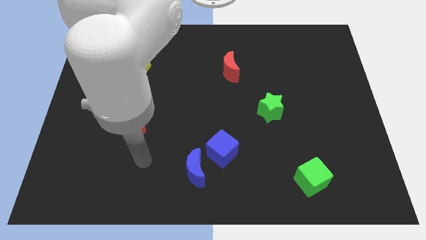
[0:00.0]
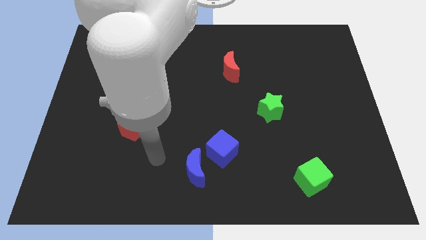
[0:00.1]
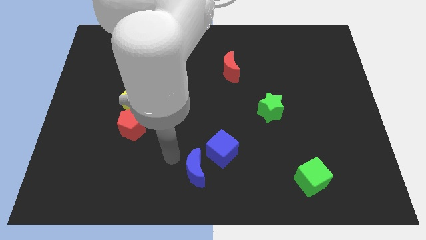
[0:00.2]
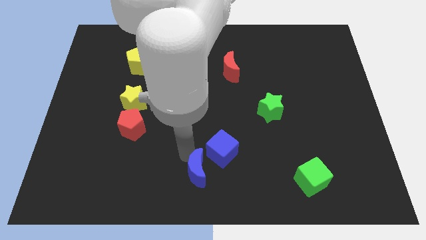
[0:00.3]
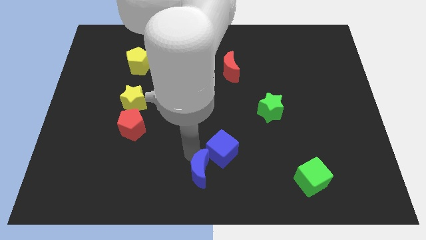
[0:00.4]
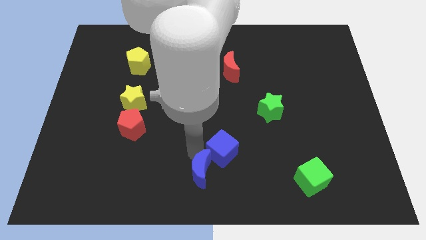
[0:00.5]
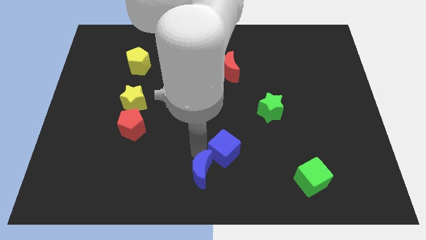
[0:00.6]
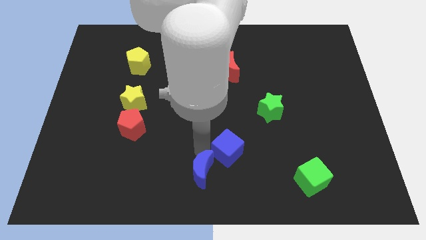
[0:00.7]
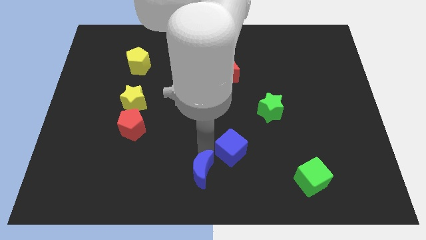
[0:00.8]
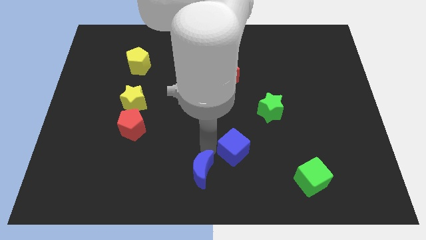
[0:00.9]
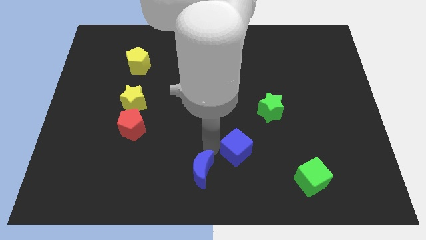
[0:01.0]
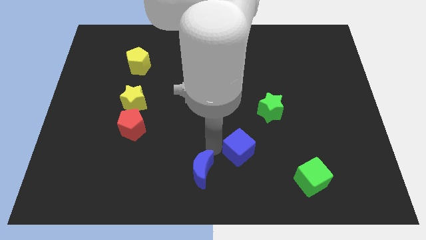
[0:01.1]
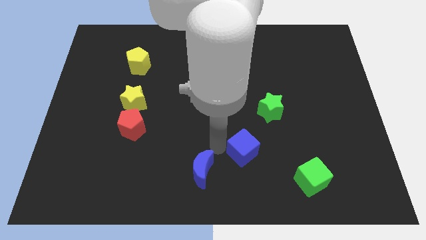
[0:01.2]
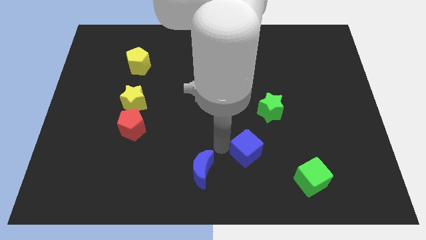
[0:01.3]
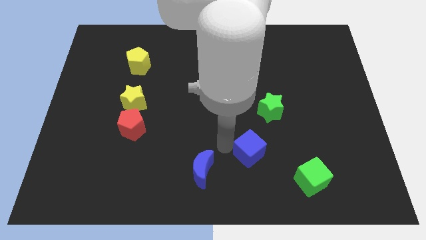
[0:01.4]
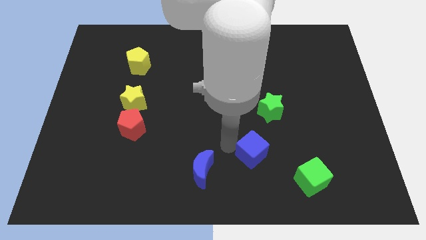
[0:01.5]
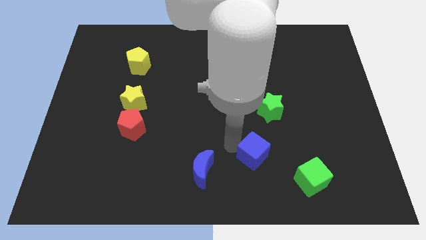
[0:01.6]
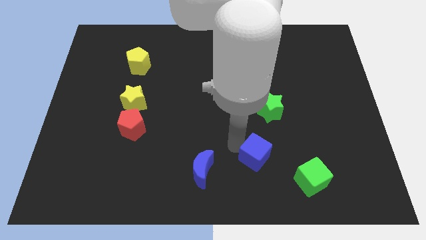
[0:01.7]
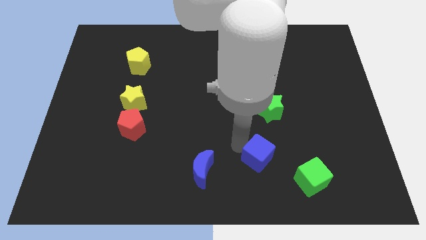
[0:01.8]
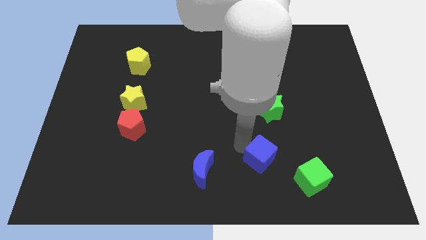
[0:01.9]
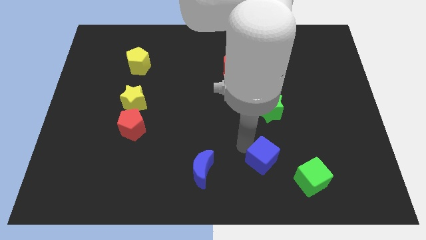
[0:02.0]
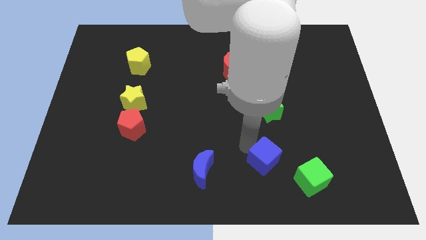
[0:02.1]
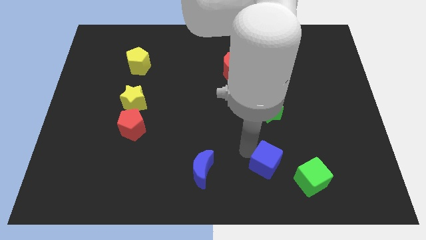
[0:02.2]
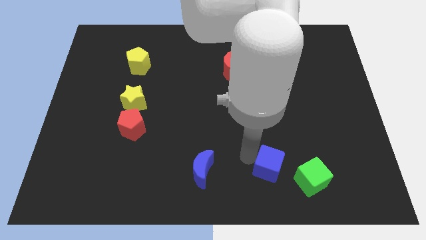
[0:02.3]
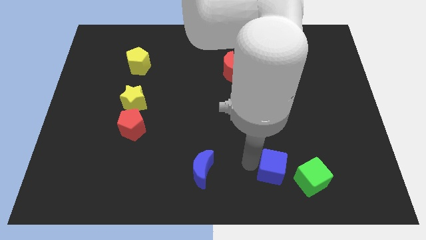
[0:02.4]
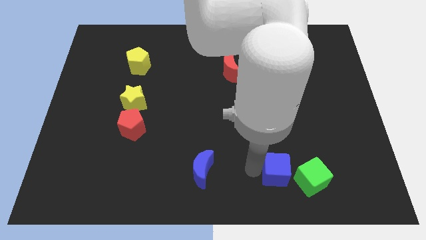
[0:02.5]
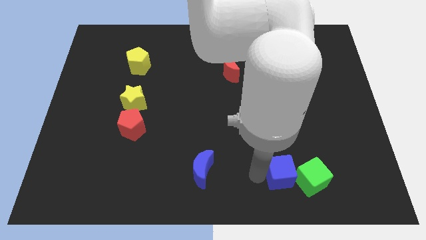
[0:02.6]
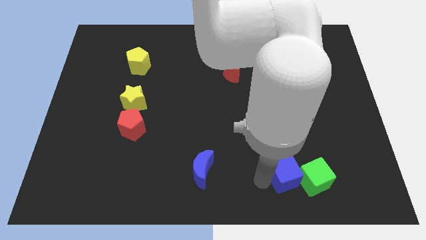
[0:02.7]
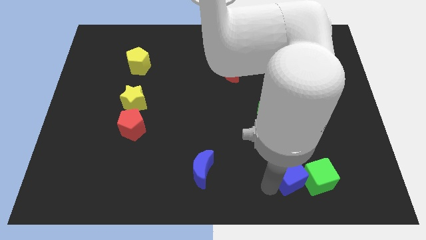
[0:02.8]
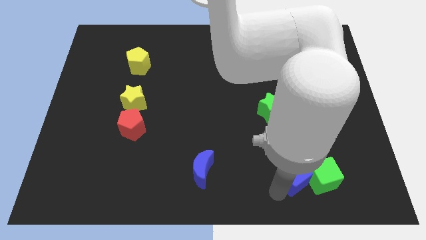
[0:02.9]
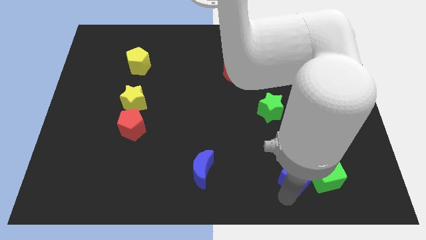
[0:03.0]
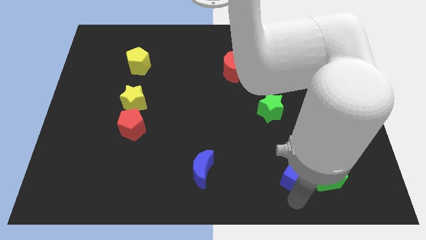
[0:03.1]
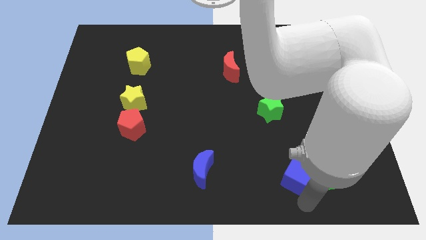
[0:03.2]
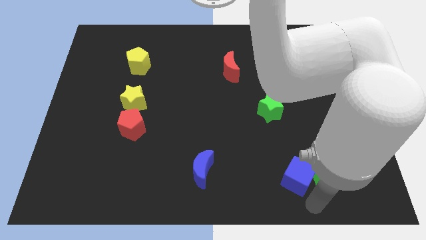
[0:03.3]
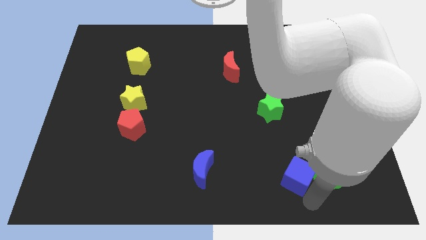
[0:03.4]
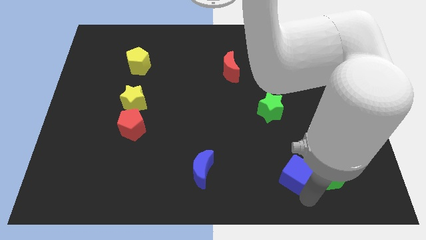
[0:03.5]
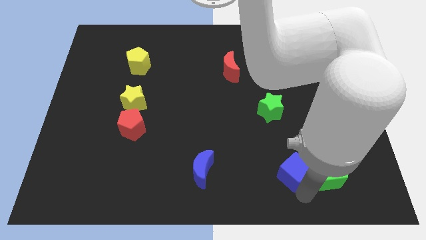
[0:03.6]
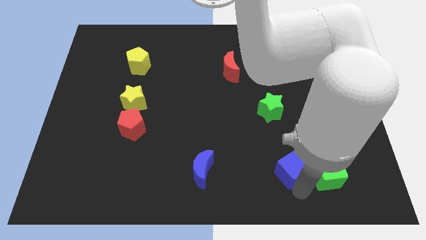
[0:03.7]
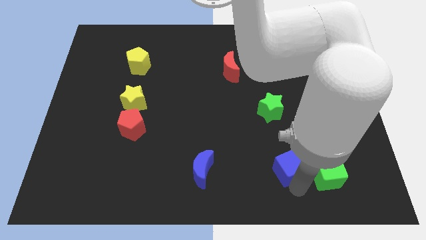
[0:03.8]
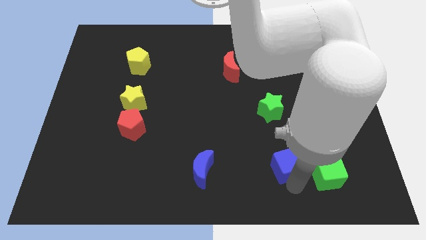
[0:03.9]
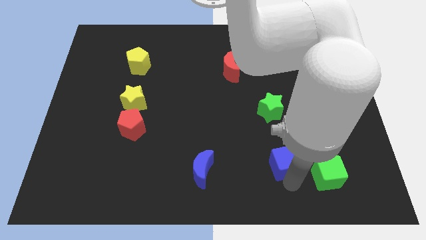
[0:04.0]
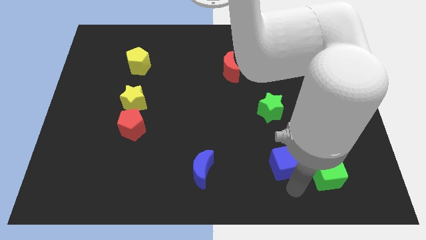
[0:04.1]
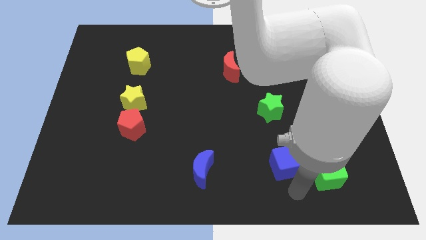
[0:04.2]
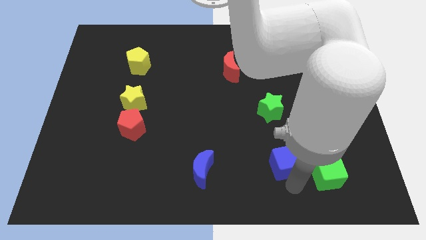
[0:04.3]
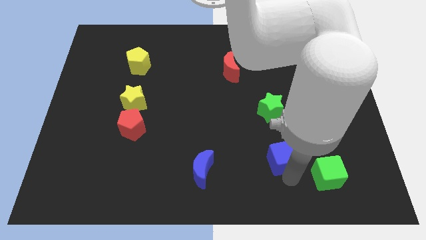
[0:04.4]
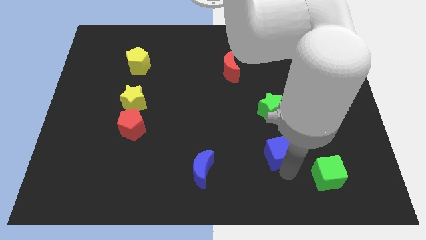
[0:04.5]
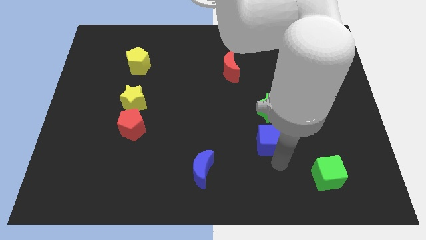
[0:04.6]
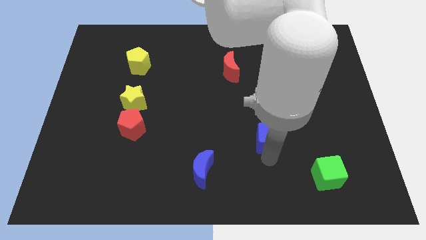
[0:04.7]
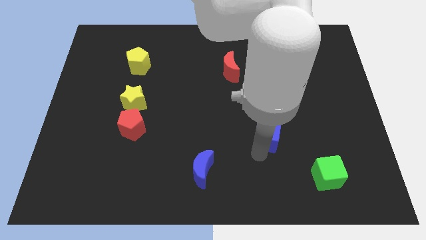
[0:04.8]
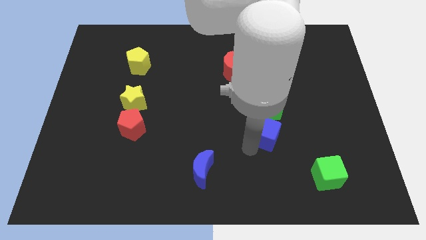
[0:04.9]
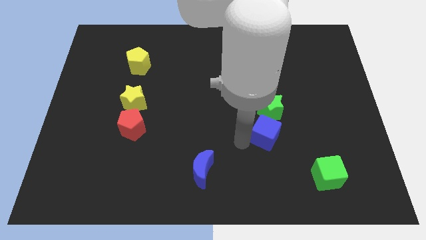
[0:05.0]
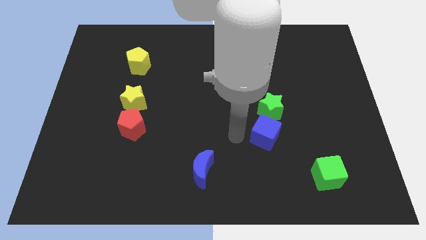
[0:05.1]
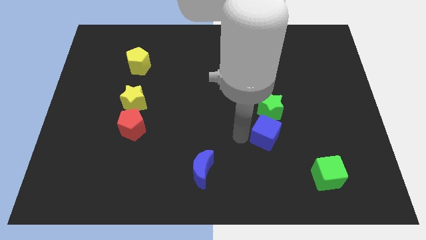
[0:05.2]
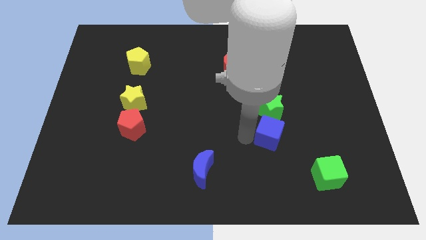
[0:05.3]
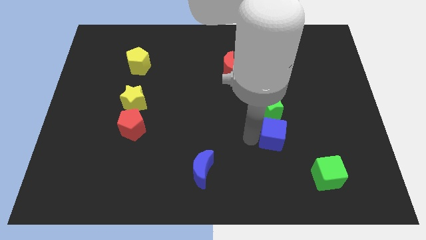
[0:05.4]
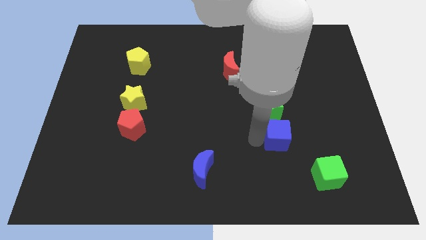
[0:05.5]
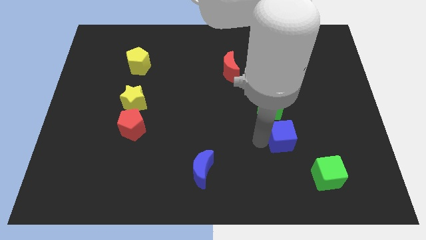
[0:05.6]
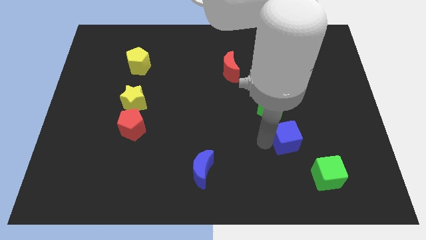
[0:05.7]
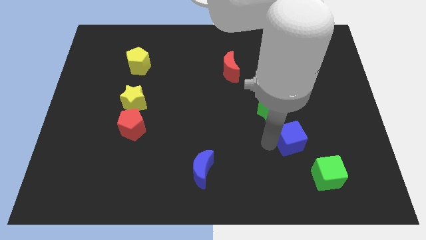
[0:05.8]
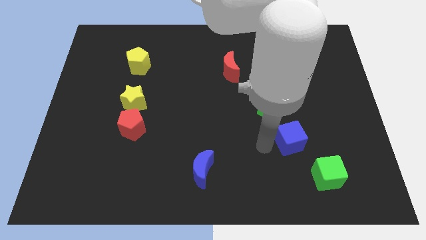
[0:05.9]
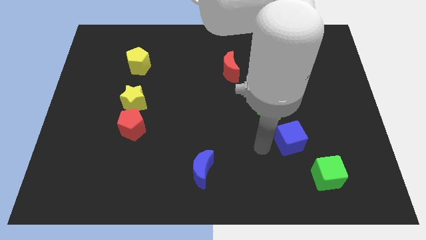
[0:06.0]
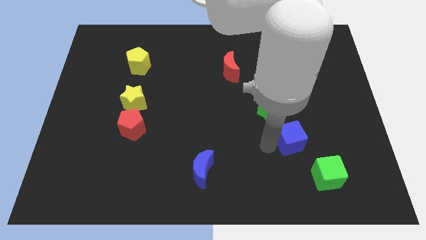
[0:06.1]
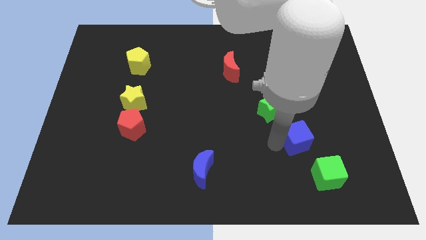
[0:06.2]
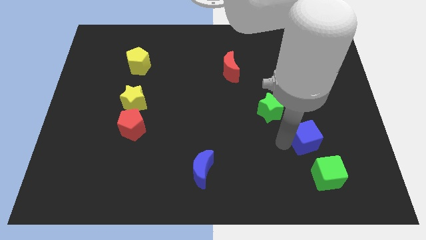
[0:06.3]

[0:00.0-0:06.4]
put the blue cube to the top side of the green cube
